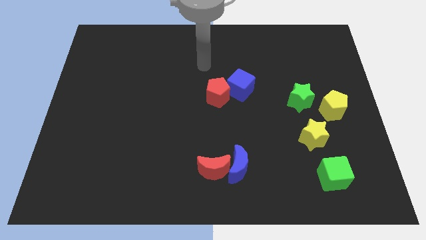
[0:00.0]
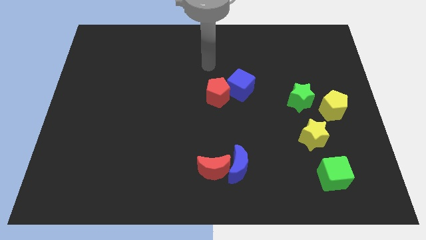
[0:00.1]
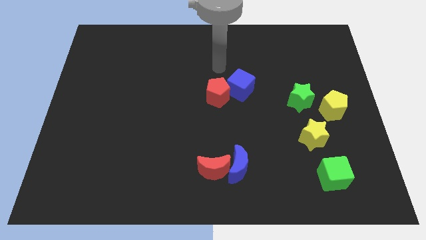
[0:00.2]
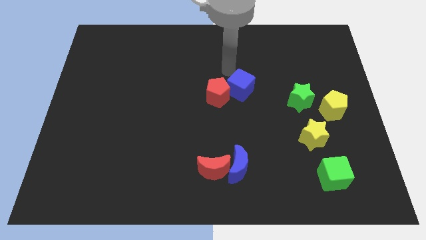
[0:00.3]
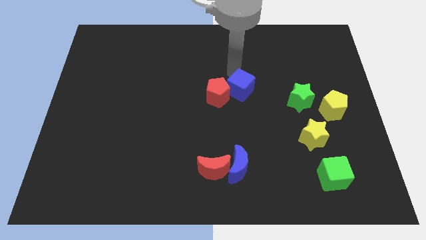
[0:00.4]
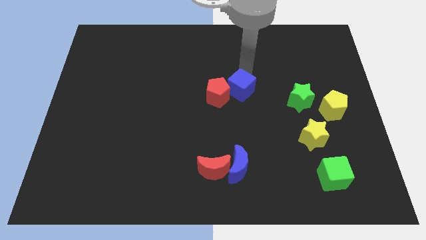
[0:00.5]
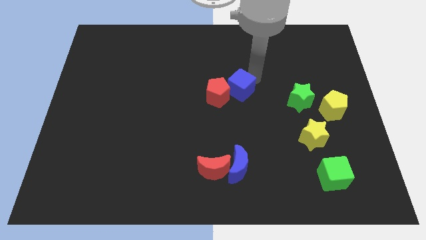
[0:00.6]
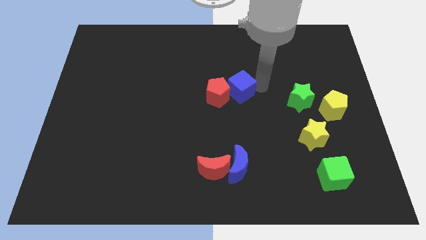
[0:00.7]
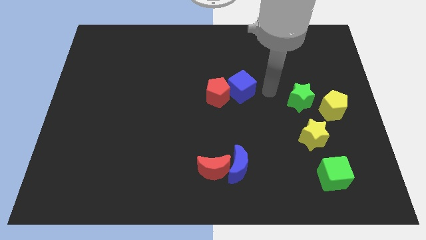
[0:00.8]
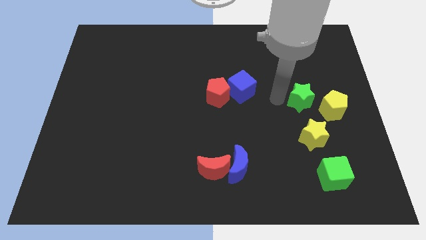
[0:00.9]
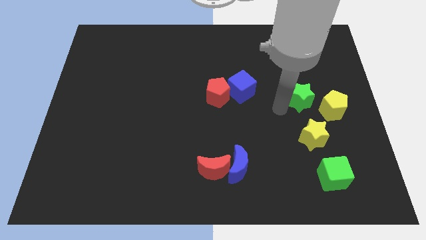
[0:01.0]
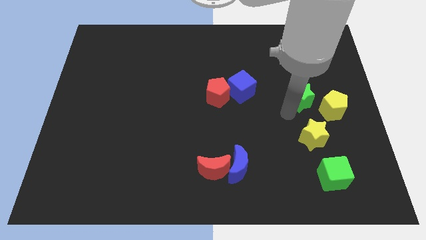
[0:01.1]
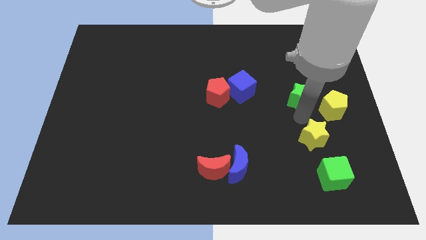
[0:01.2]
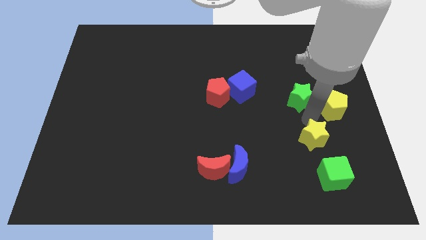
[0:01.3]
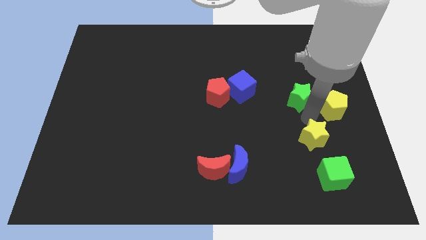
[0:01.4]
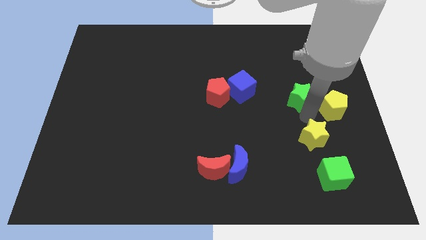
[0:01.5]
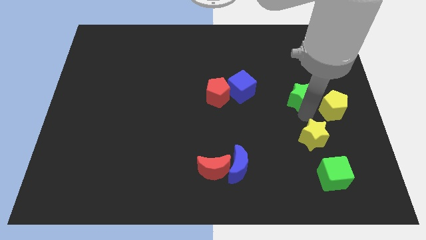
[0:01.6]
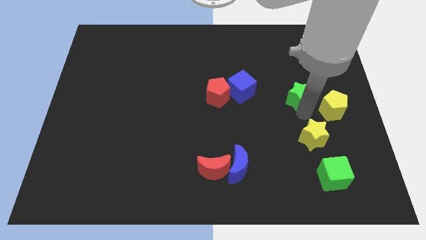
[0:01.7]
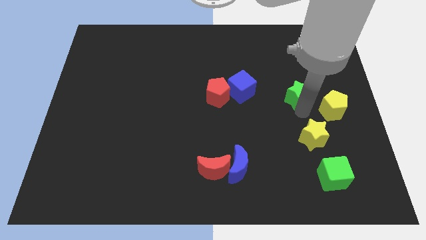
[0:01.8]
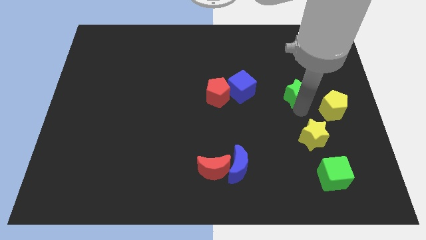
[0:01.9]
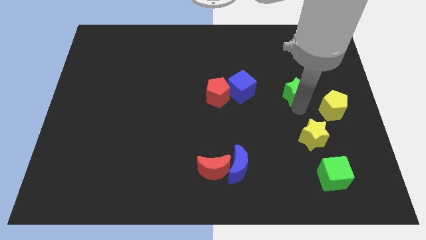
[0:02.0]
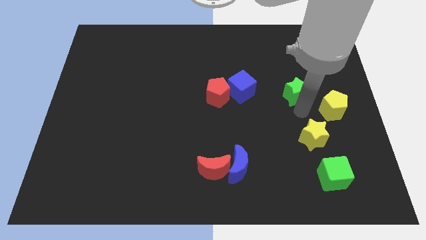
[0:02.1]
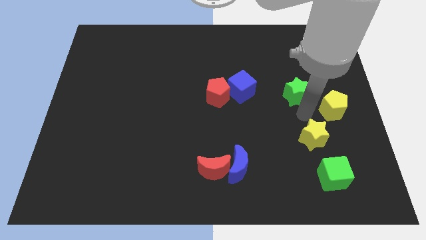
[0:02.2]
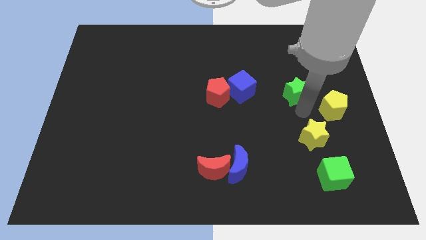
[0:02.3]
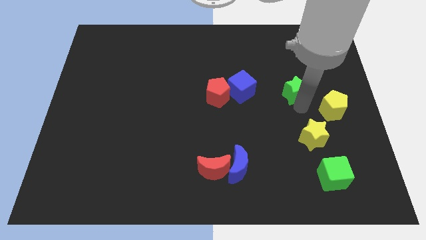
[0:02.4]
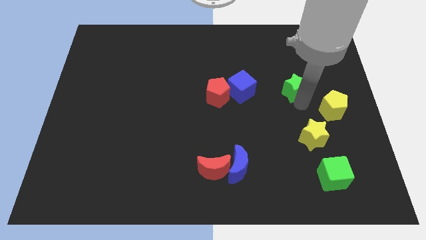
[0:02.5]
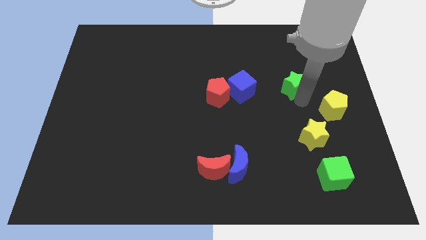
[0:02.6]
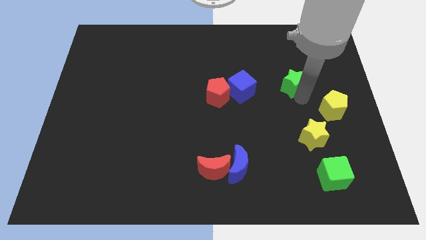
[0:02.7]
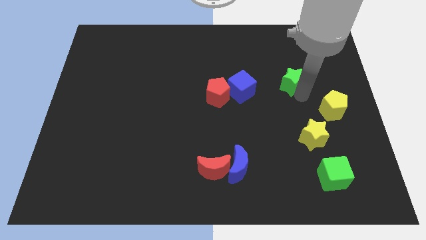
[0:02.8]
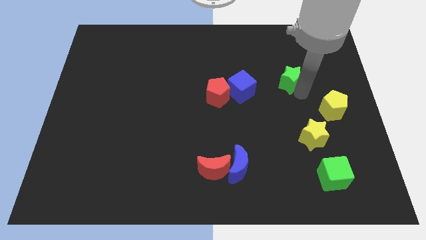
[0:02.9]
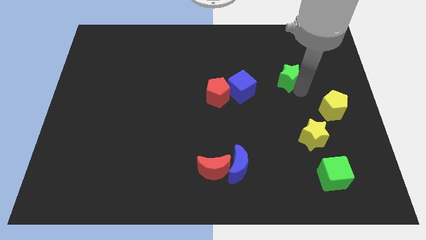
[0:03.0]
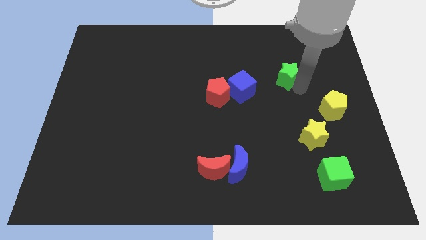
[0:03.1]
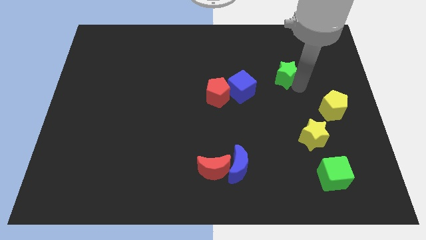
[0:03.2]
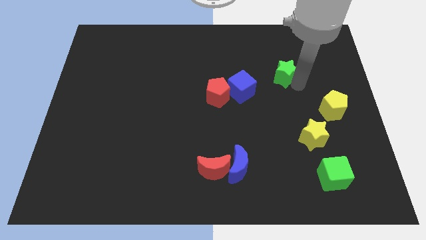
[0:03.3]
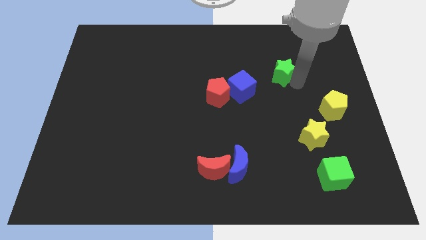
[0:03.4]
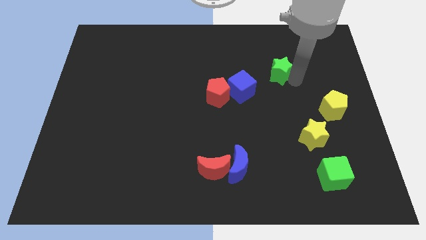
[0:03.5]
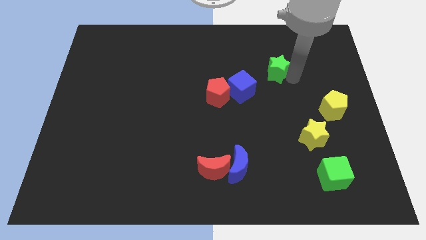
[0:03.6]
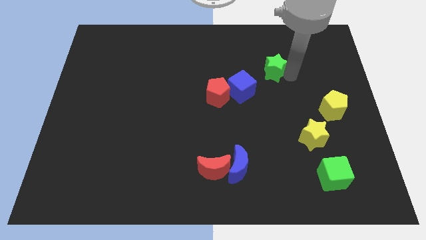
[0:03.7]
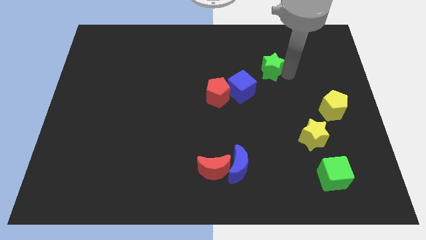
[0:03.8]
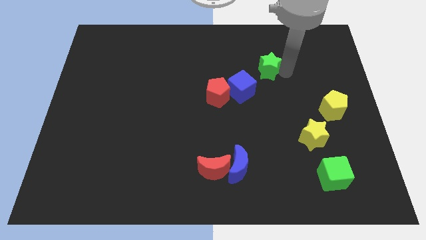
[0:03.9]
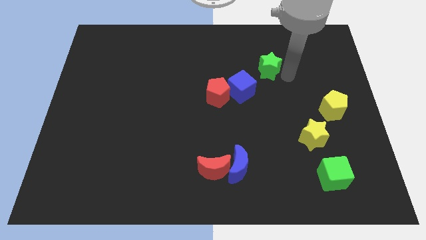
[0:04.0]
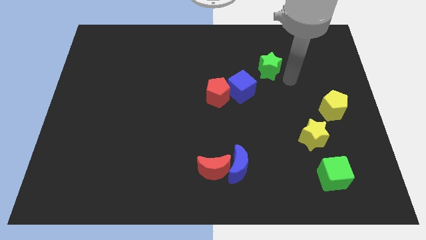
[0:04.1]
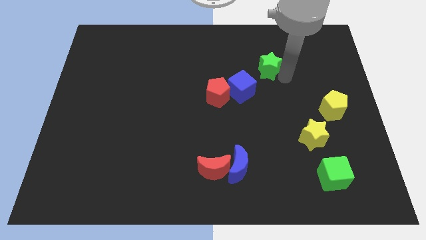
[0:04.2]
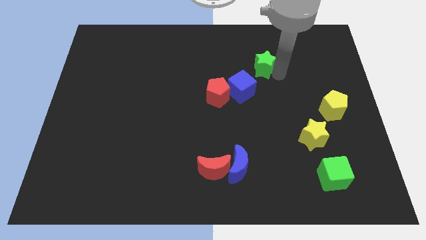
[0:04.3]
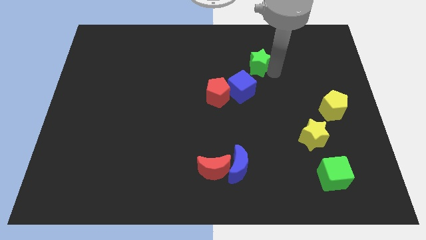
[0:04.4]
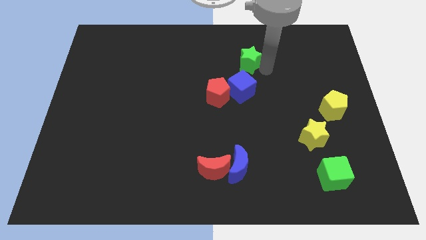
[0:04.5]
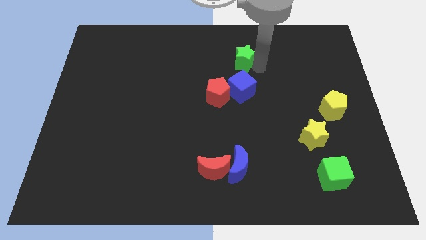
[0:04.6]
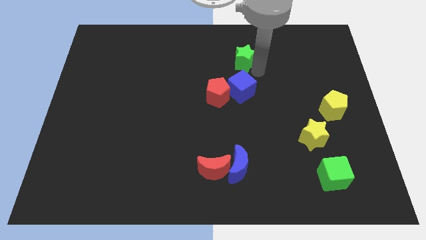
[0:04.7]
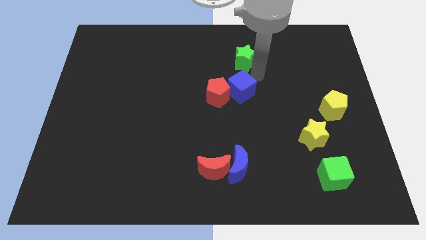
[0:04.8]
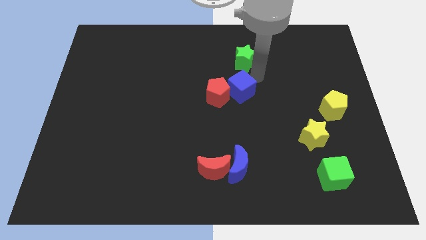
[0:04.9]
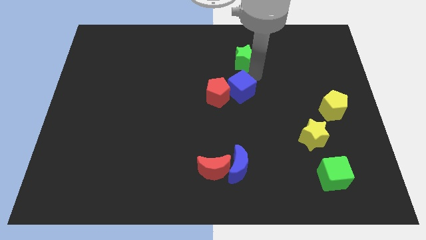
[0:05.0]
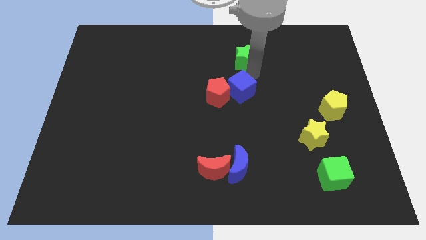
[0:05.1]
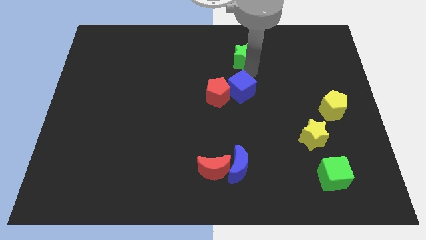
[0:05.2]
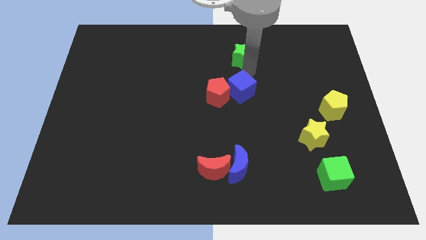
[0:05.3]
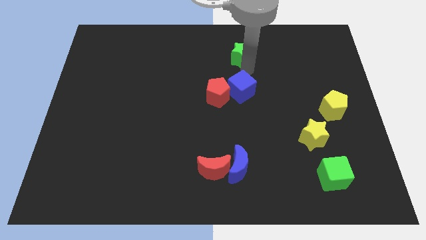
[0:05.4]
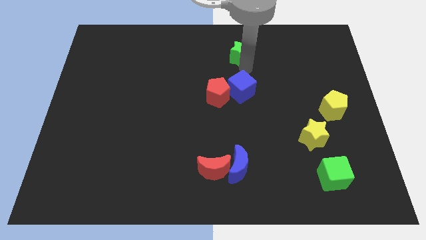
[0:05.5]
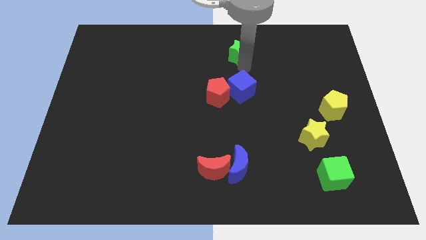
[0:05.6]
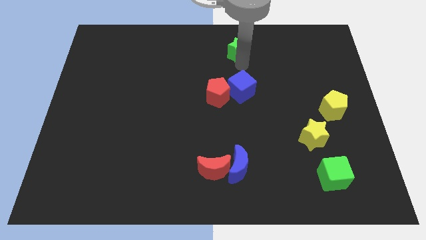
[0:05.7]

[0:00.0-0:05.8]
put the green star to the top

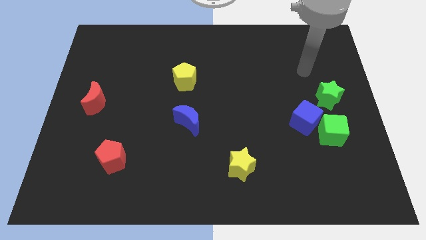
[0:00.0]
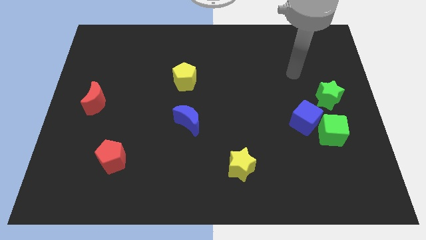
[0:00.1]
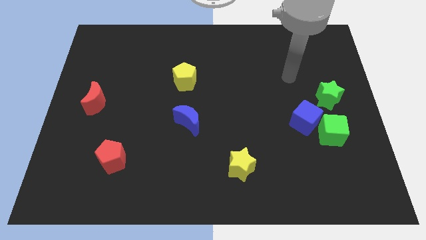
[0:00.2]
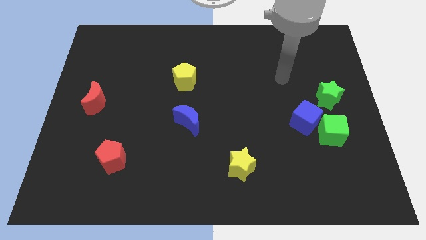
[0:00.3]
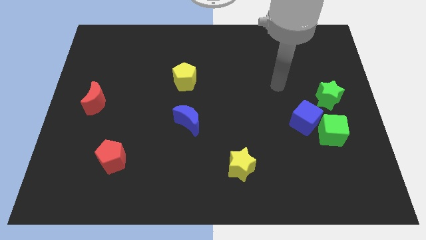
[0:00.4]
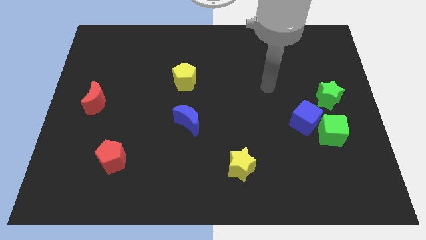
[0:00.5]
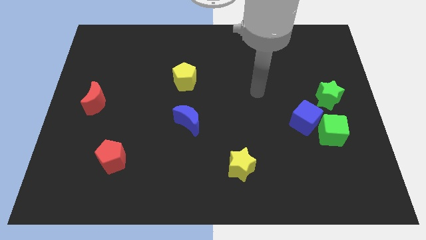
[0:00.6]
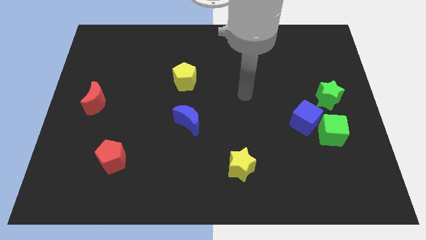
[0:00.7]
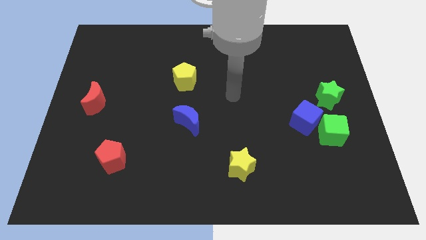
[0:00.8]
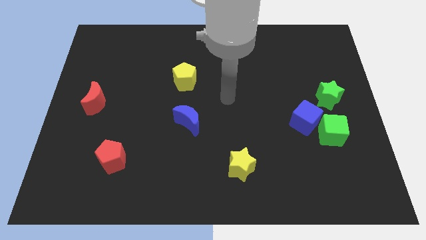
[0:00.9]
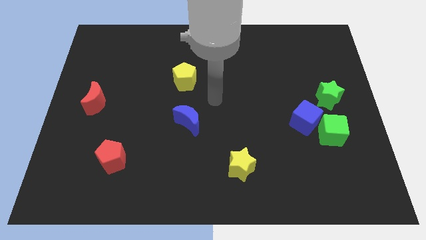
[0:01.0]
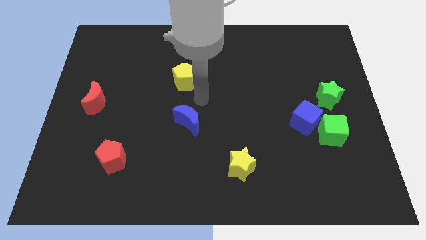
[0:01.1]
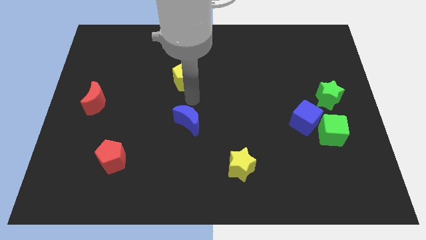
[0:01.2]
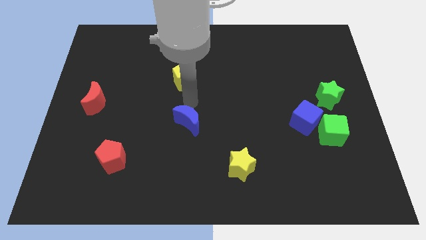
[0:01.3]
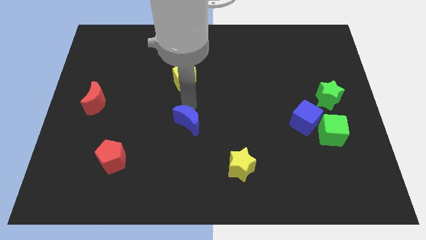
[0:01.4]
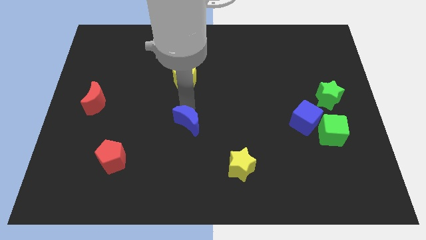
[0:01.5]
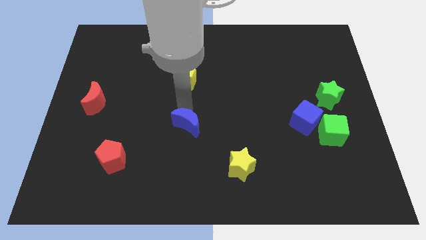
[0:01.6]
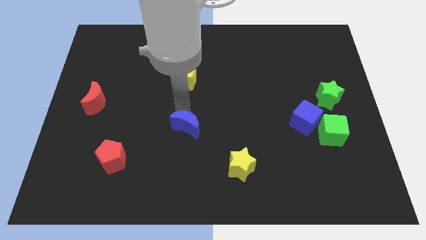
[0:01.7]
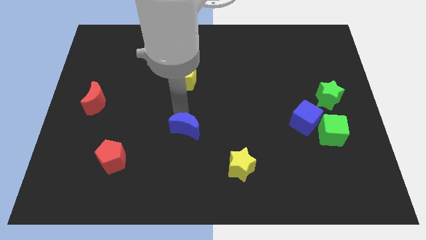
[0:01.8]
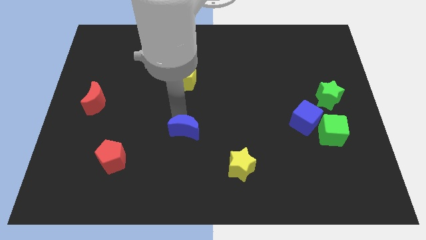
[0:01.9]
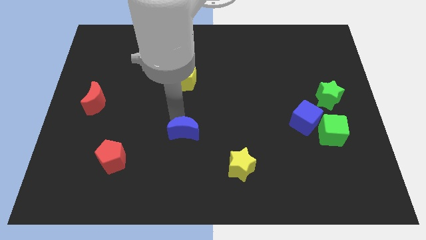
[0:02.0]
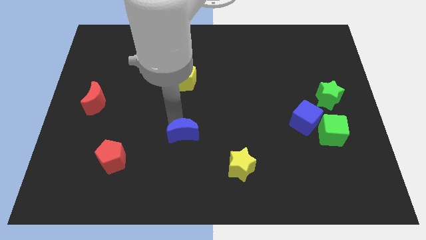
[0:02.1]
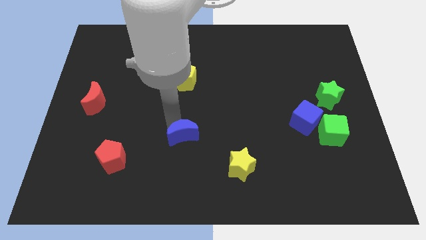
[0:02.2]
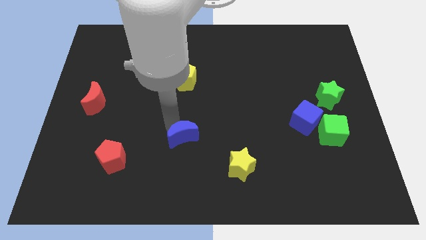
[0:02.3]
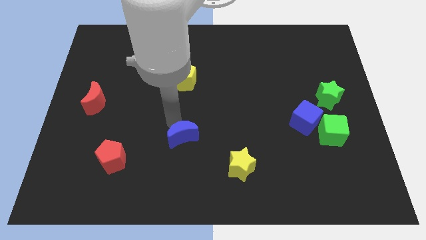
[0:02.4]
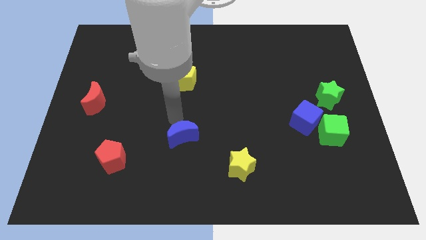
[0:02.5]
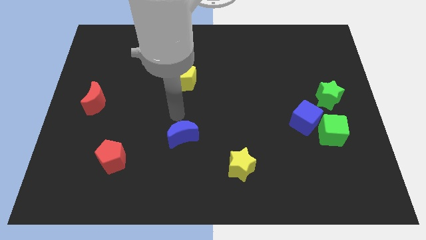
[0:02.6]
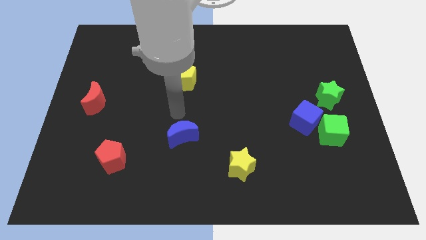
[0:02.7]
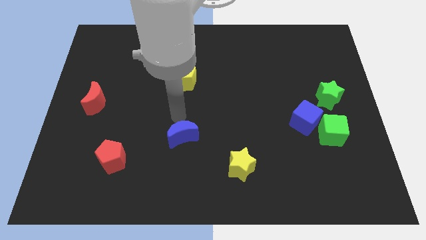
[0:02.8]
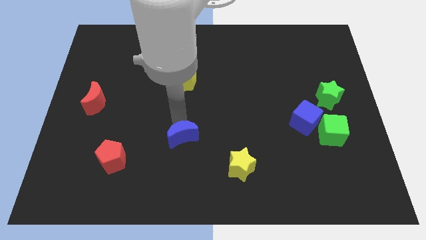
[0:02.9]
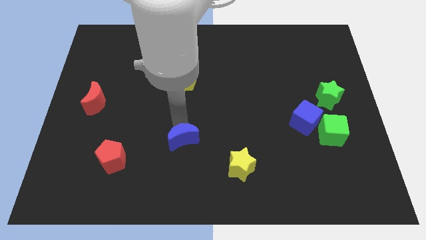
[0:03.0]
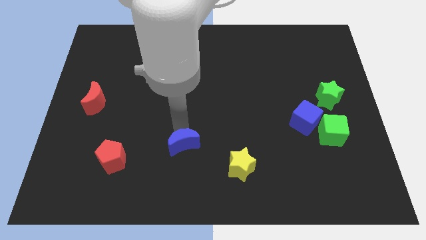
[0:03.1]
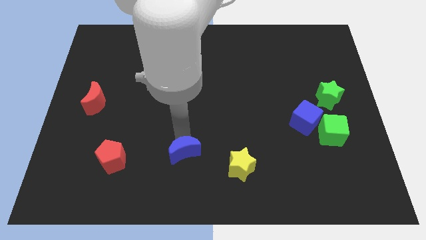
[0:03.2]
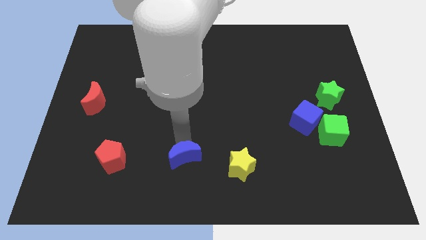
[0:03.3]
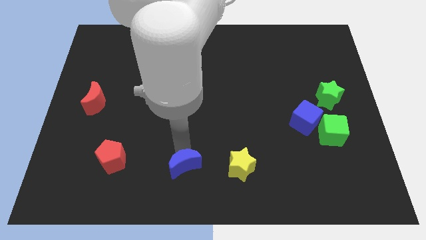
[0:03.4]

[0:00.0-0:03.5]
put the blue moon to the bottom side
